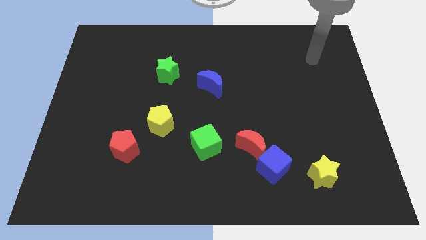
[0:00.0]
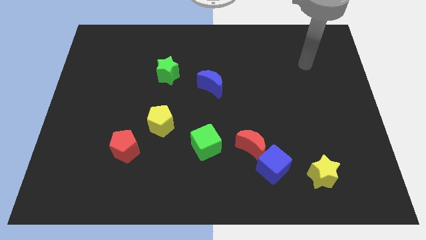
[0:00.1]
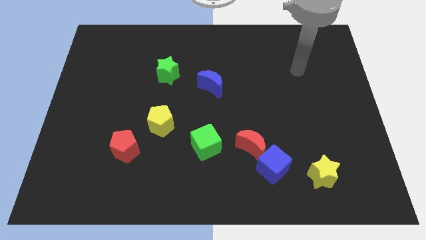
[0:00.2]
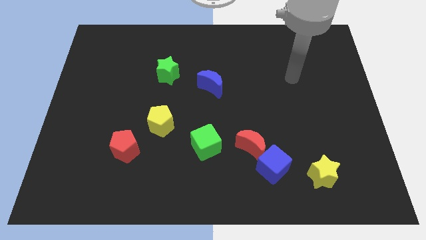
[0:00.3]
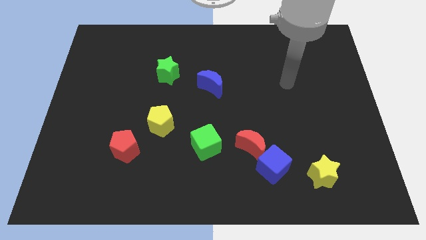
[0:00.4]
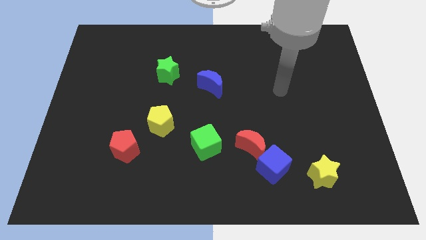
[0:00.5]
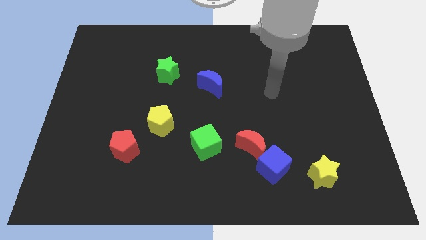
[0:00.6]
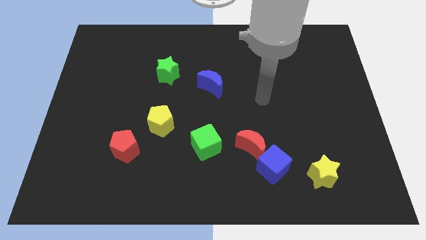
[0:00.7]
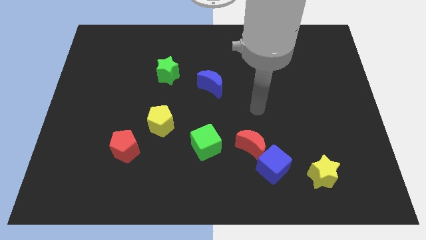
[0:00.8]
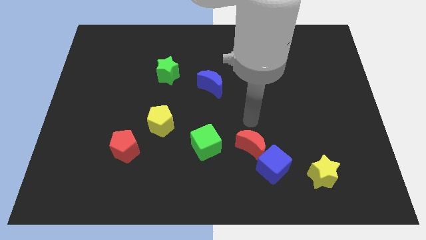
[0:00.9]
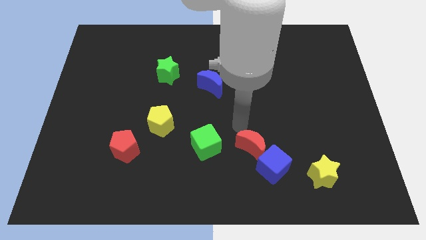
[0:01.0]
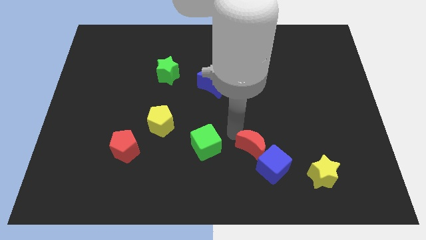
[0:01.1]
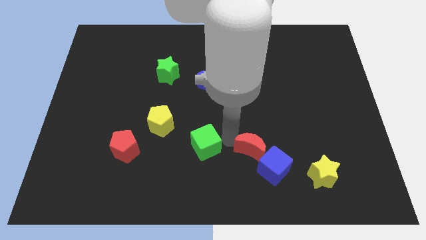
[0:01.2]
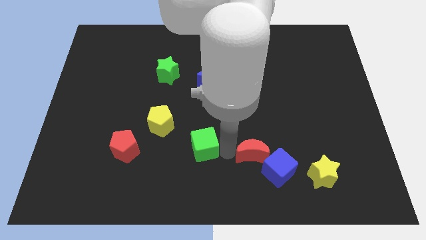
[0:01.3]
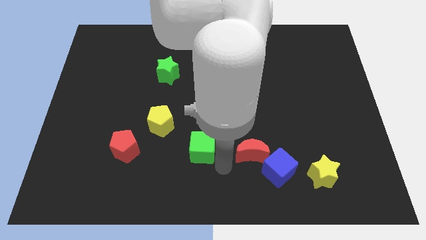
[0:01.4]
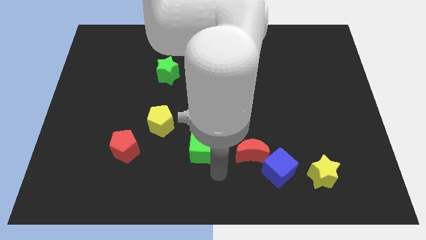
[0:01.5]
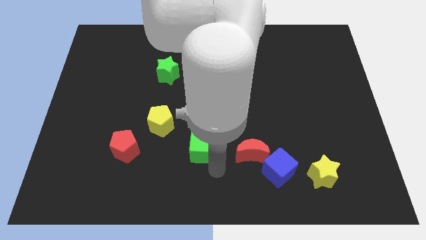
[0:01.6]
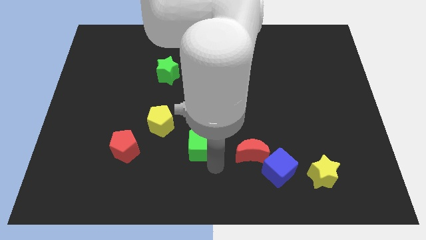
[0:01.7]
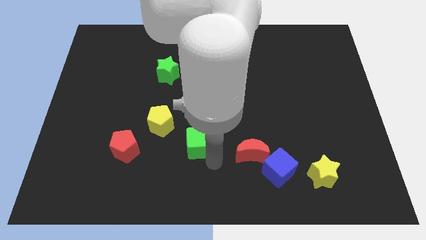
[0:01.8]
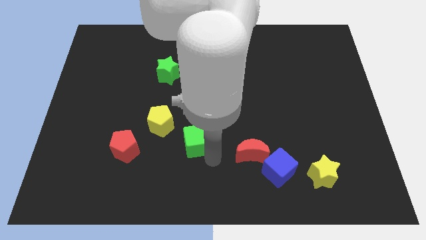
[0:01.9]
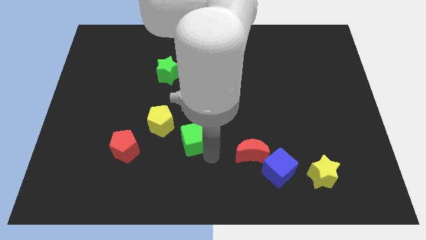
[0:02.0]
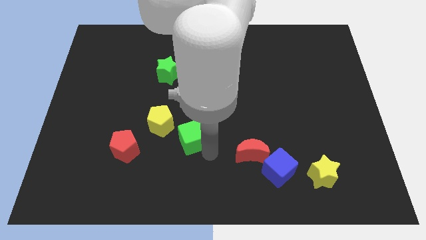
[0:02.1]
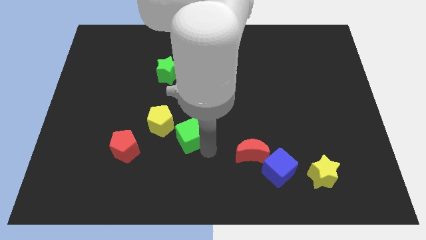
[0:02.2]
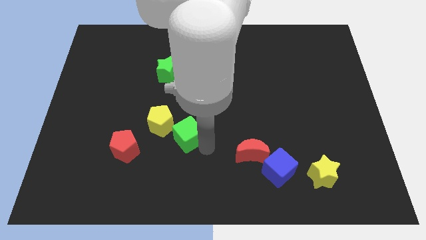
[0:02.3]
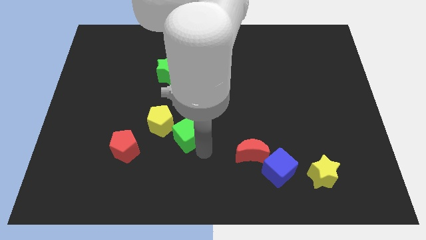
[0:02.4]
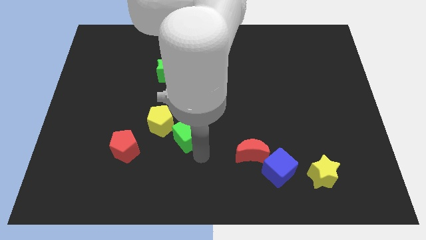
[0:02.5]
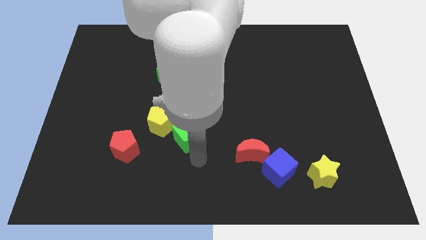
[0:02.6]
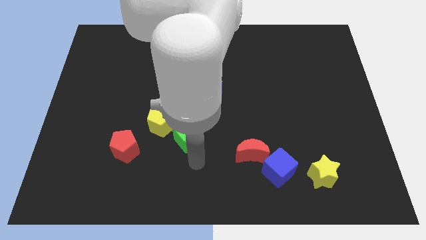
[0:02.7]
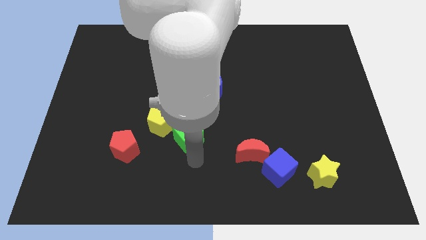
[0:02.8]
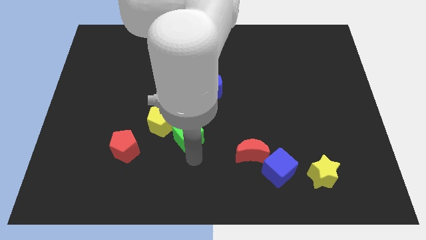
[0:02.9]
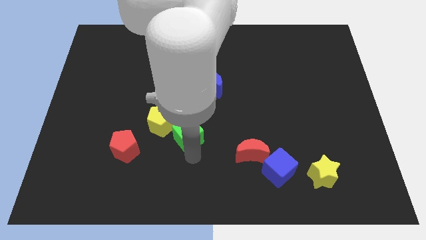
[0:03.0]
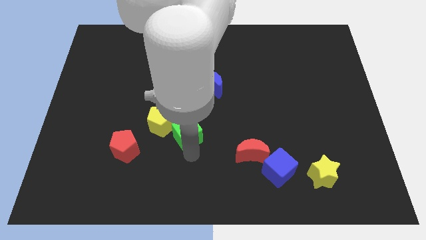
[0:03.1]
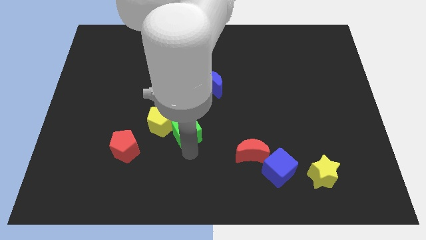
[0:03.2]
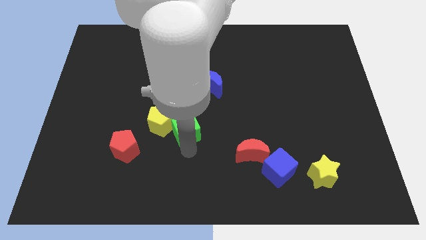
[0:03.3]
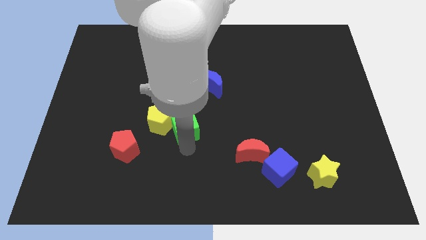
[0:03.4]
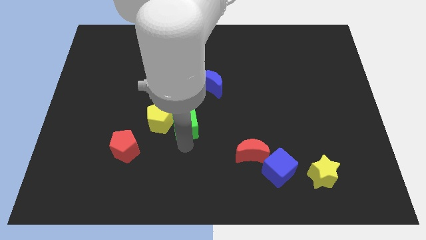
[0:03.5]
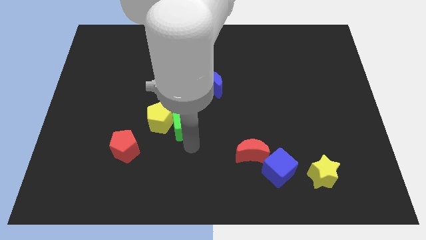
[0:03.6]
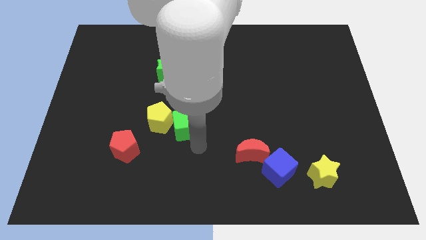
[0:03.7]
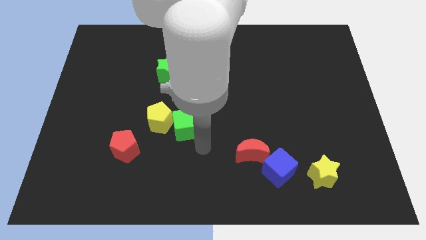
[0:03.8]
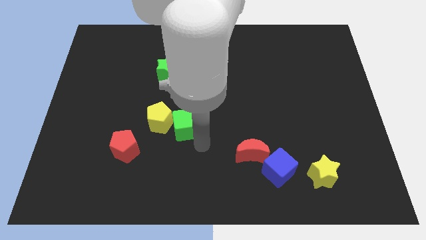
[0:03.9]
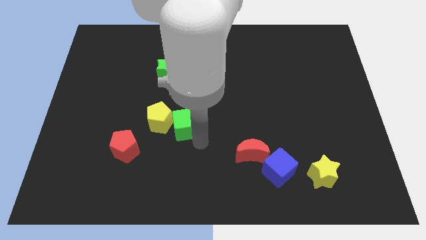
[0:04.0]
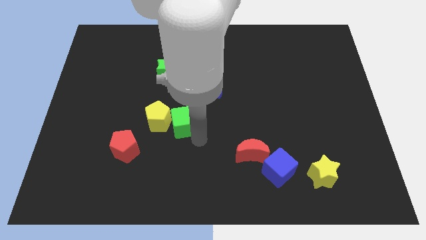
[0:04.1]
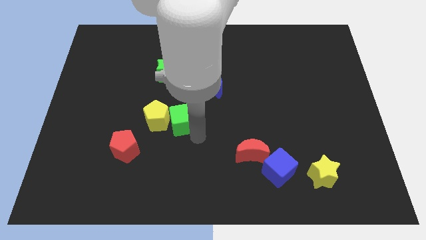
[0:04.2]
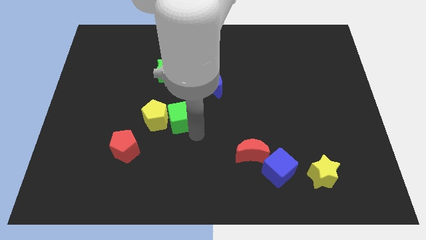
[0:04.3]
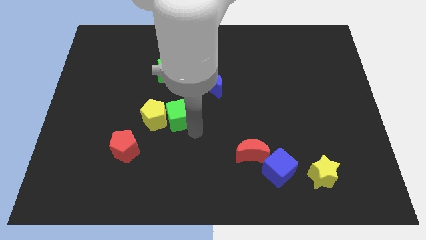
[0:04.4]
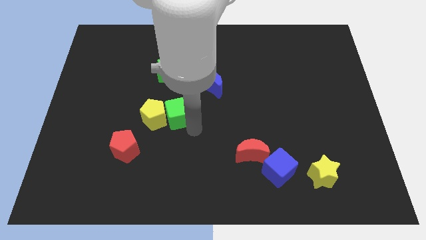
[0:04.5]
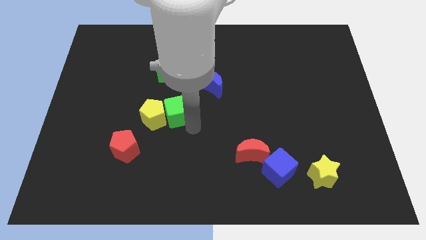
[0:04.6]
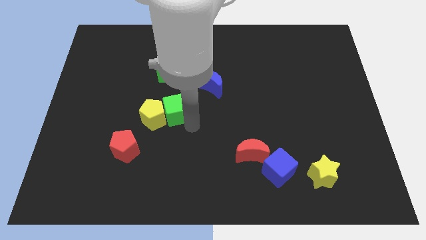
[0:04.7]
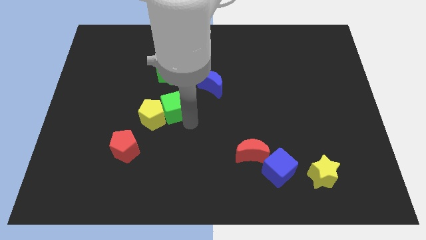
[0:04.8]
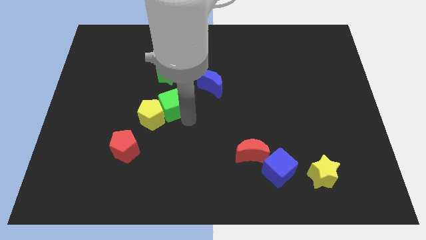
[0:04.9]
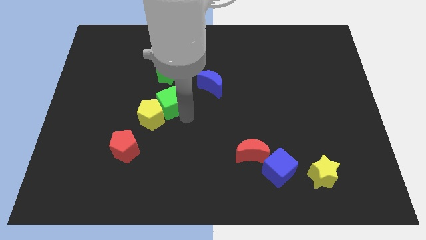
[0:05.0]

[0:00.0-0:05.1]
push the green cube to the top of the yellow pentagon

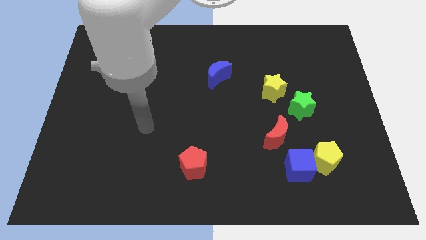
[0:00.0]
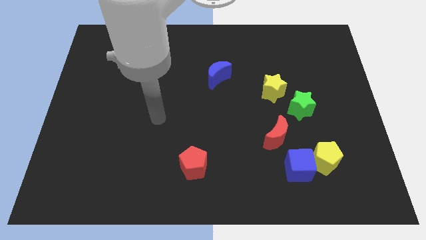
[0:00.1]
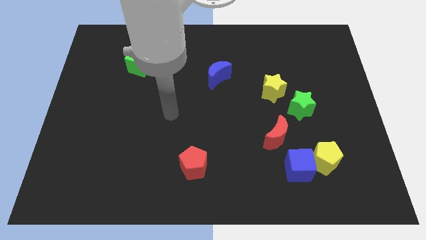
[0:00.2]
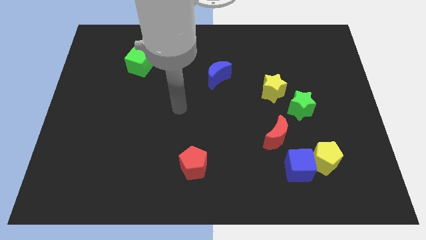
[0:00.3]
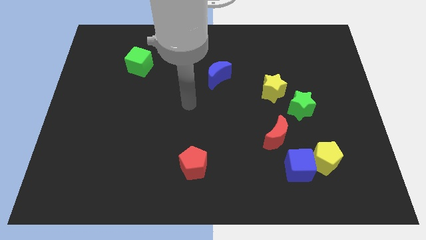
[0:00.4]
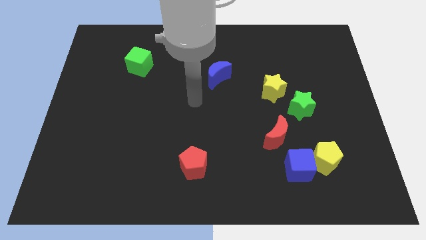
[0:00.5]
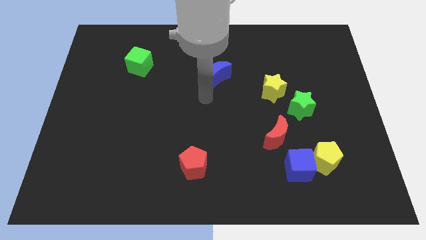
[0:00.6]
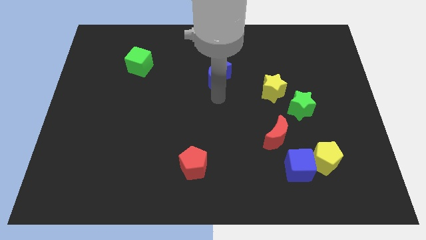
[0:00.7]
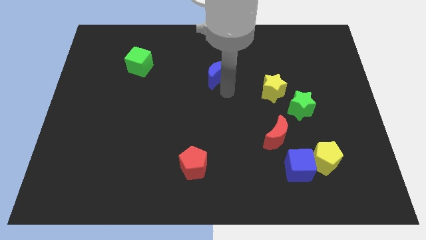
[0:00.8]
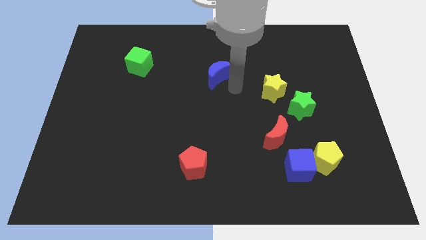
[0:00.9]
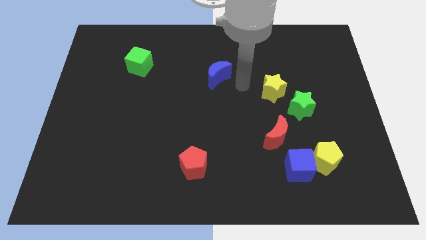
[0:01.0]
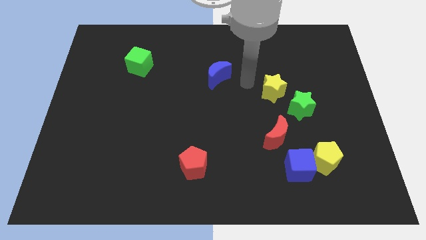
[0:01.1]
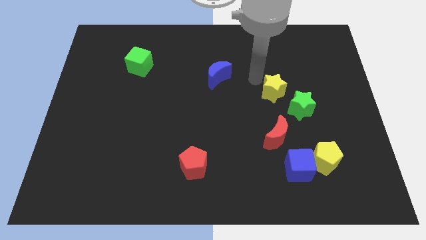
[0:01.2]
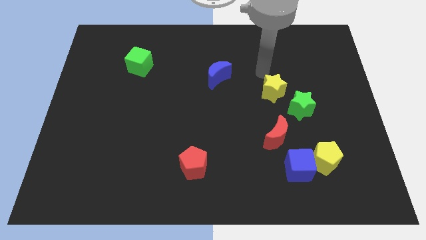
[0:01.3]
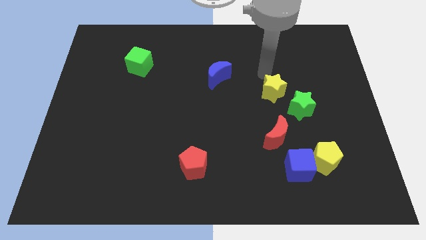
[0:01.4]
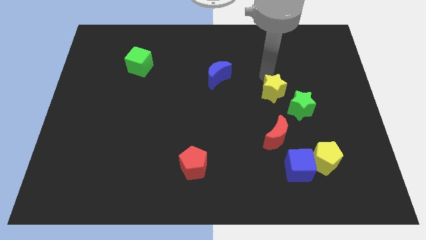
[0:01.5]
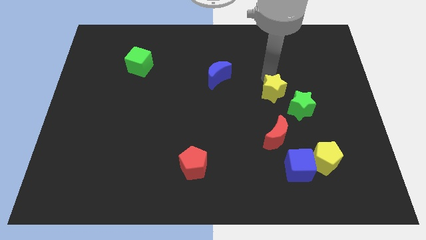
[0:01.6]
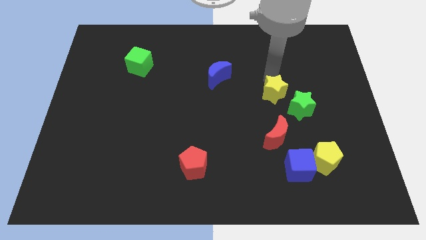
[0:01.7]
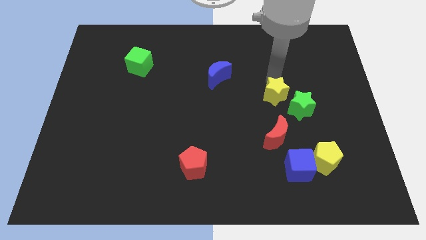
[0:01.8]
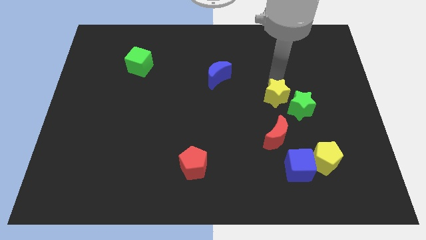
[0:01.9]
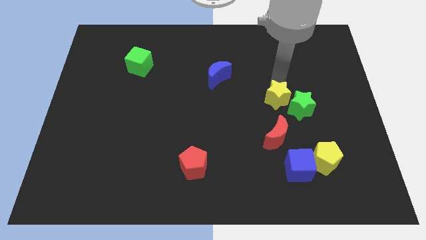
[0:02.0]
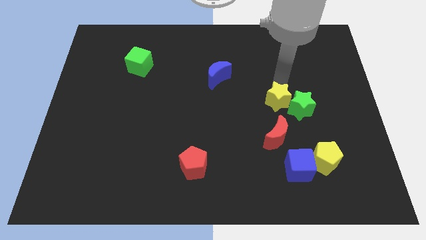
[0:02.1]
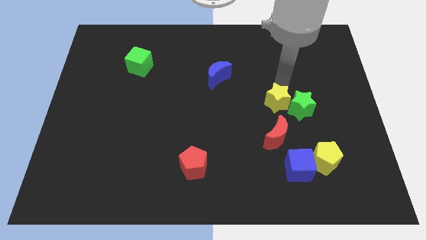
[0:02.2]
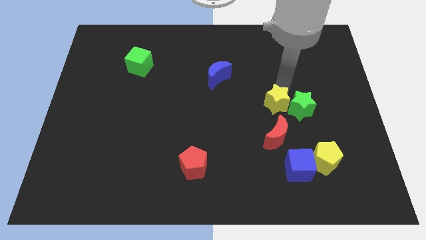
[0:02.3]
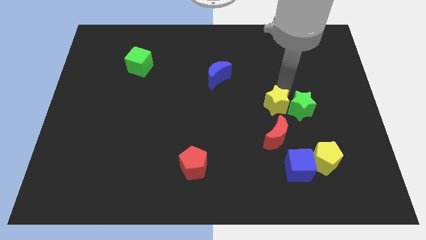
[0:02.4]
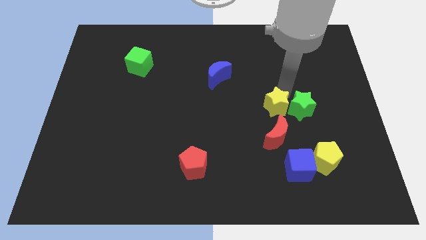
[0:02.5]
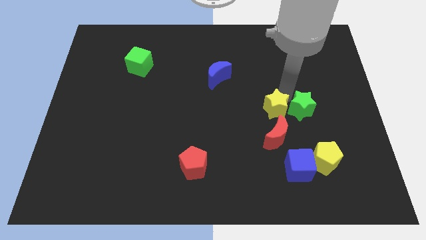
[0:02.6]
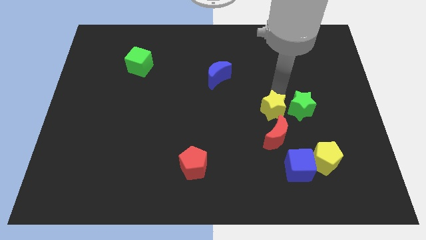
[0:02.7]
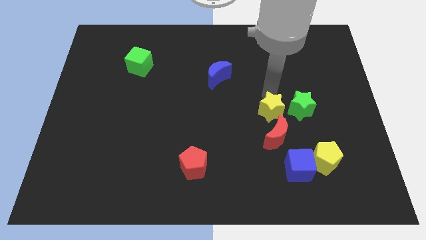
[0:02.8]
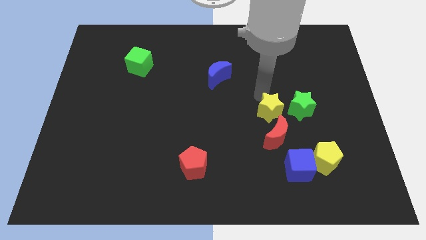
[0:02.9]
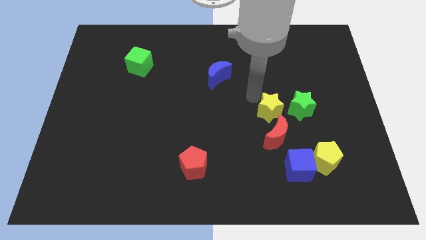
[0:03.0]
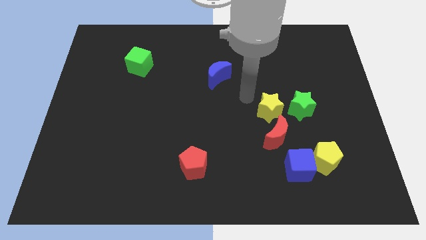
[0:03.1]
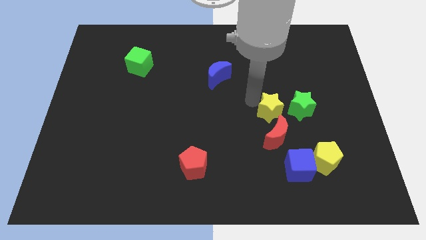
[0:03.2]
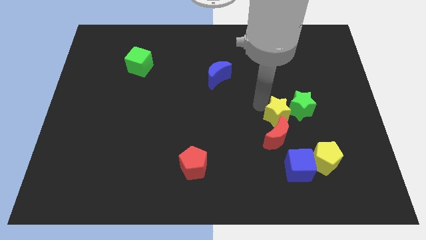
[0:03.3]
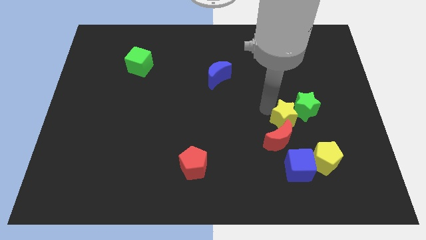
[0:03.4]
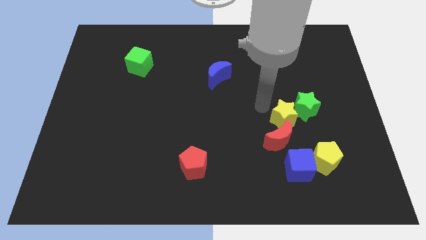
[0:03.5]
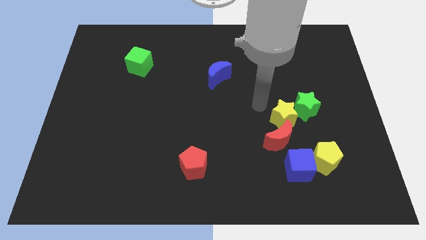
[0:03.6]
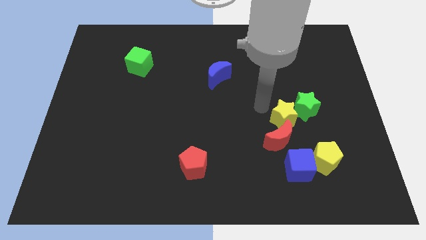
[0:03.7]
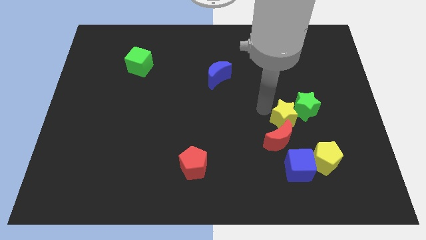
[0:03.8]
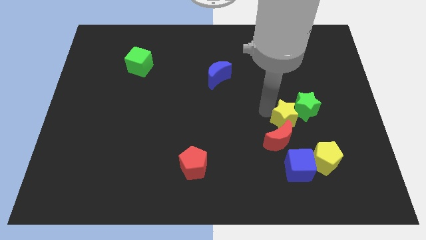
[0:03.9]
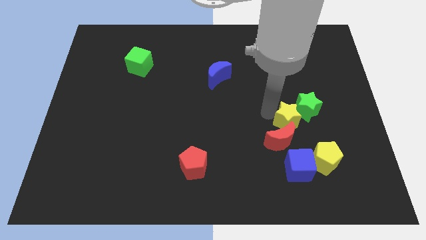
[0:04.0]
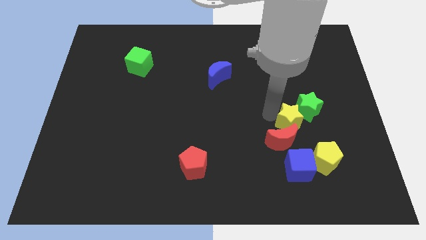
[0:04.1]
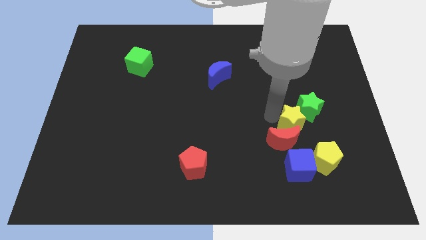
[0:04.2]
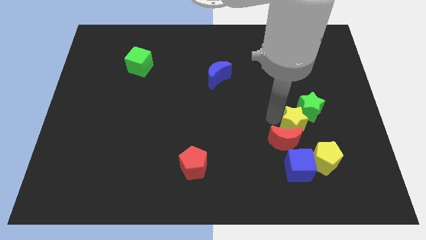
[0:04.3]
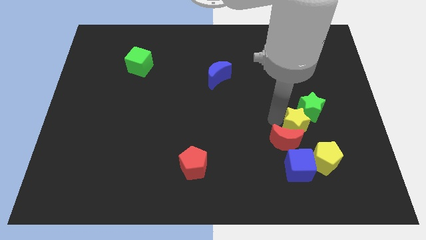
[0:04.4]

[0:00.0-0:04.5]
push the yellow star above the yellow pentagon
